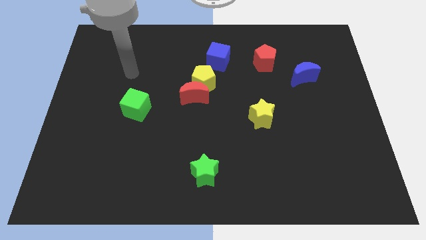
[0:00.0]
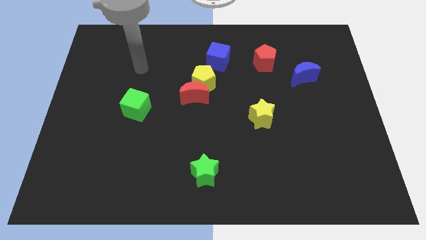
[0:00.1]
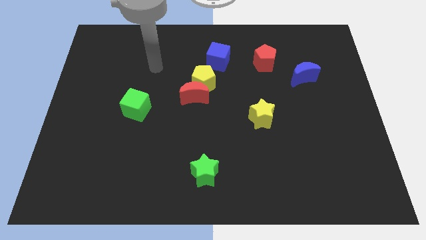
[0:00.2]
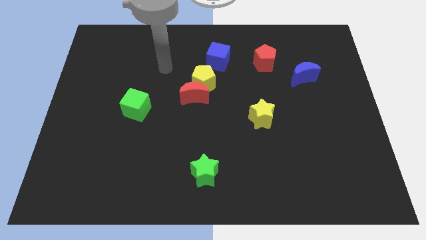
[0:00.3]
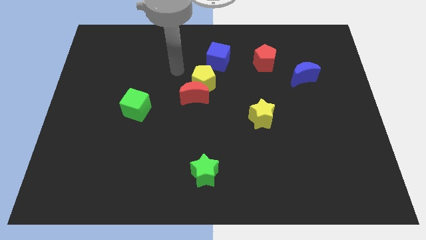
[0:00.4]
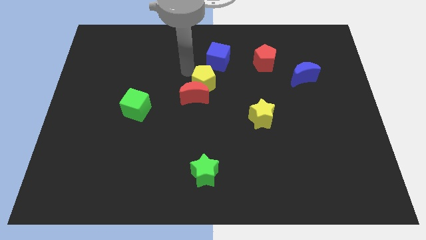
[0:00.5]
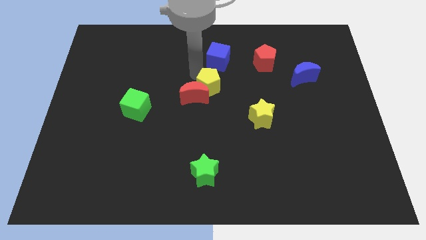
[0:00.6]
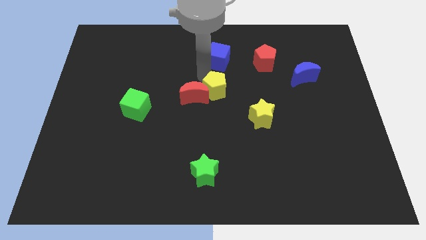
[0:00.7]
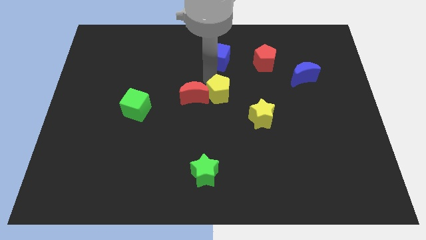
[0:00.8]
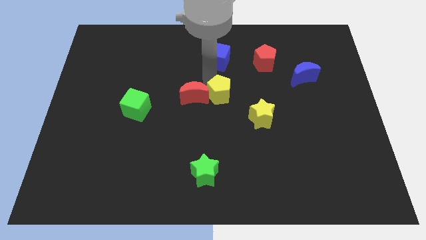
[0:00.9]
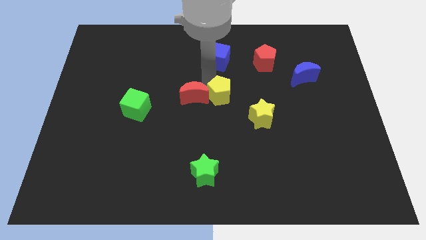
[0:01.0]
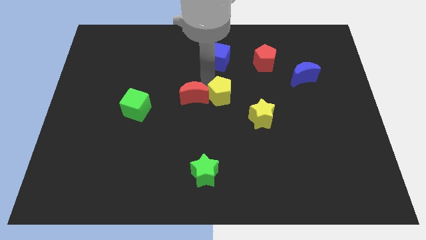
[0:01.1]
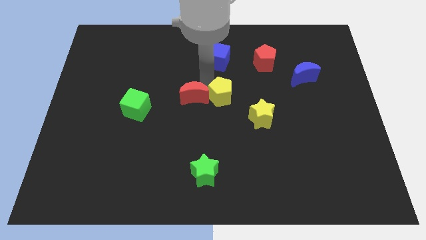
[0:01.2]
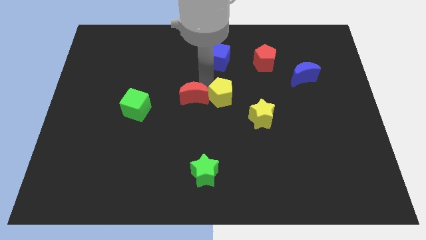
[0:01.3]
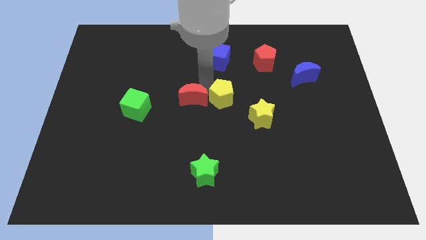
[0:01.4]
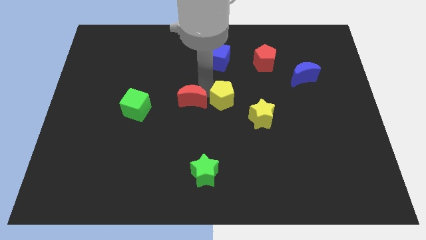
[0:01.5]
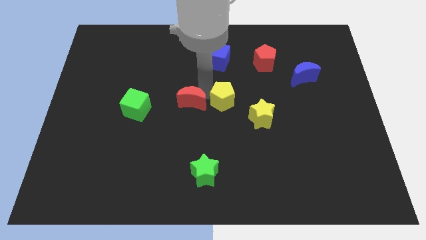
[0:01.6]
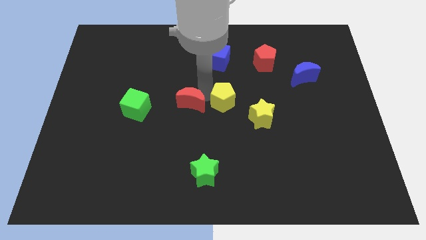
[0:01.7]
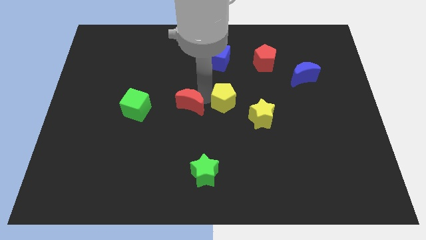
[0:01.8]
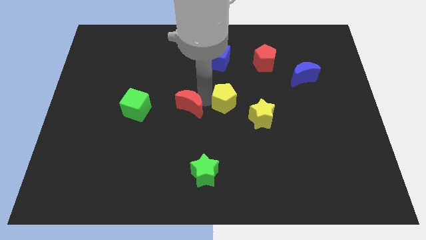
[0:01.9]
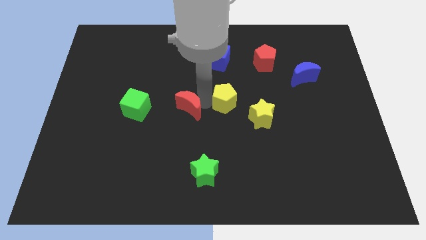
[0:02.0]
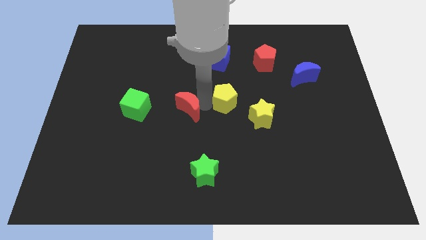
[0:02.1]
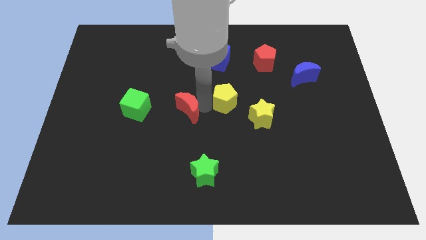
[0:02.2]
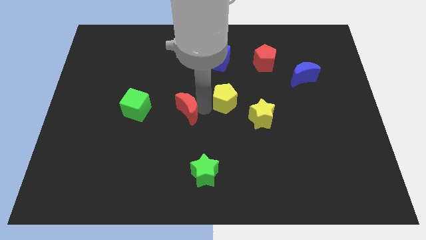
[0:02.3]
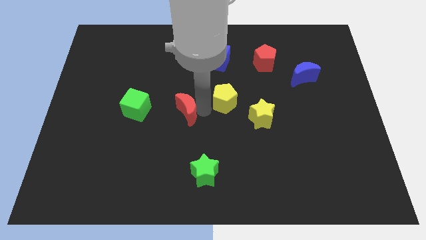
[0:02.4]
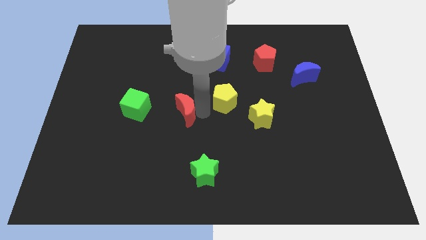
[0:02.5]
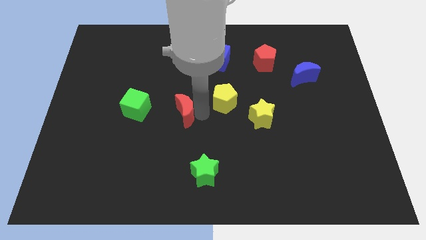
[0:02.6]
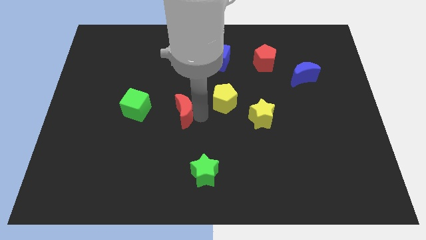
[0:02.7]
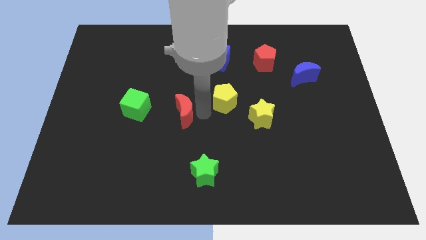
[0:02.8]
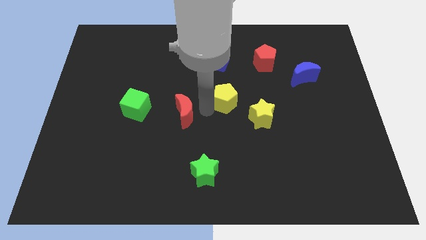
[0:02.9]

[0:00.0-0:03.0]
separate the red moon from the yellow pentagon

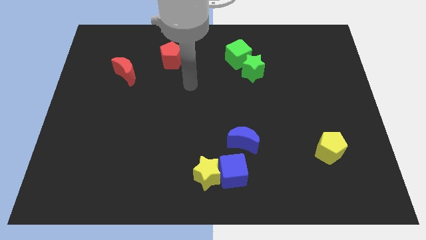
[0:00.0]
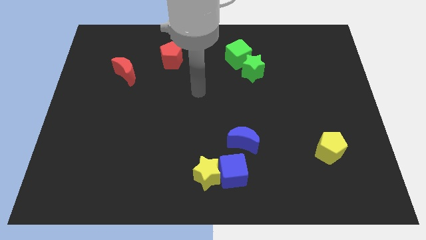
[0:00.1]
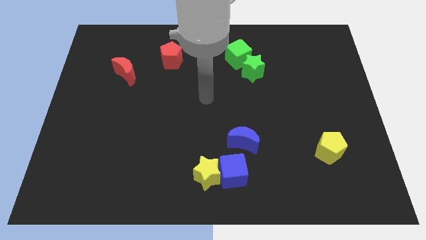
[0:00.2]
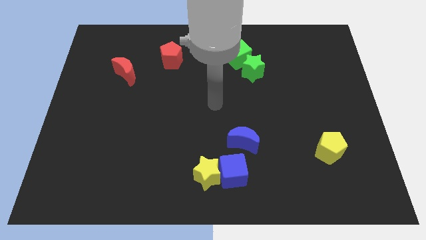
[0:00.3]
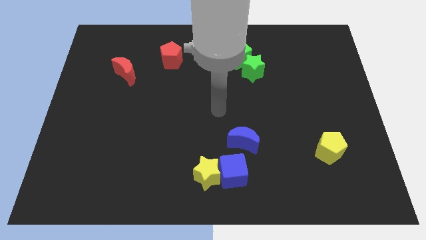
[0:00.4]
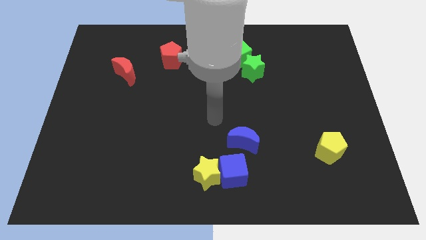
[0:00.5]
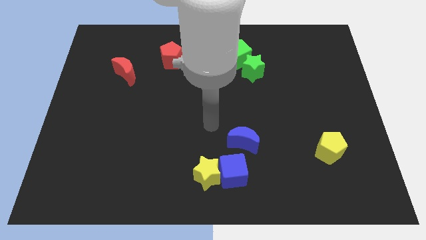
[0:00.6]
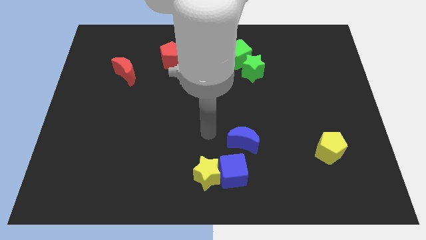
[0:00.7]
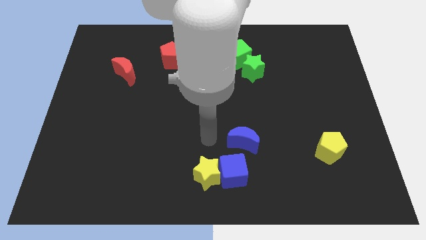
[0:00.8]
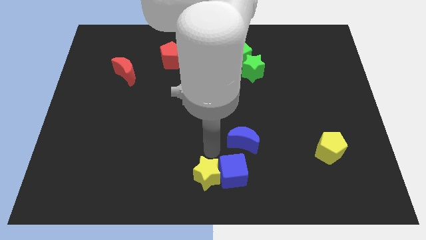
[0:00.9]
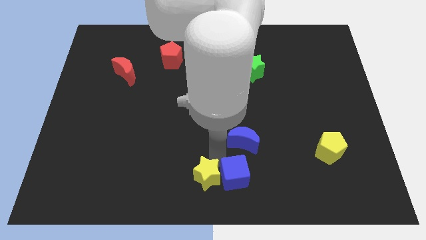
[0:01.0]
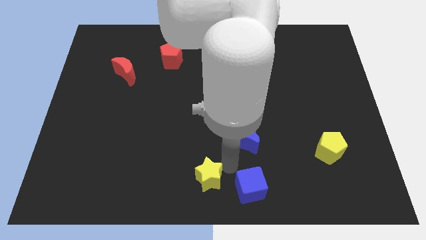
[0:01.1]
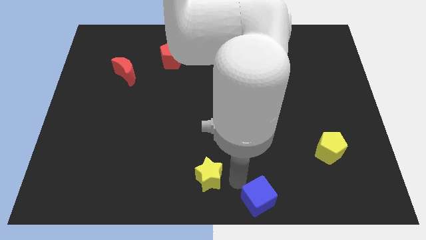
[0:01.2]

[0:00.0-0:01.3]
separate the yellow star from the blue cube

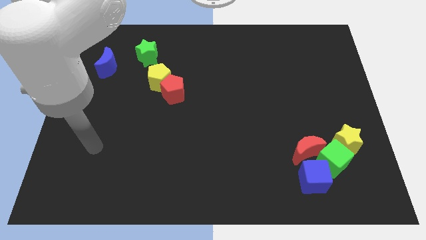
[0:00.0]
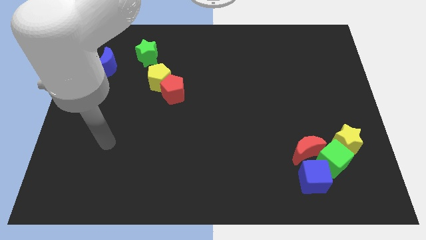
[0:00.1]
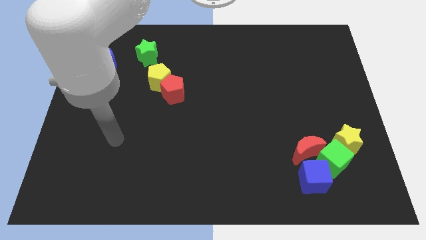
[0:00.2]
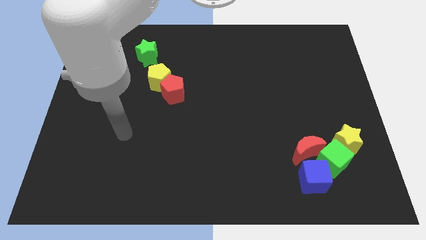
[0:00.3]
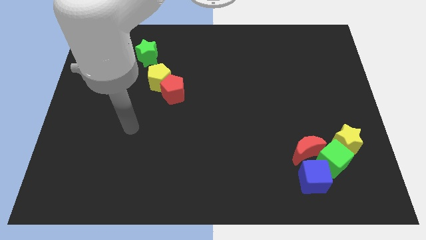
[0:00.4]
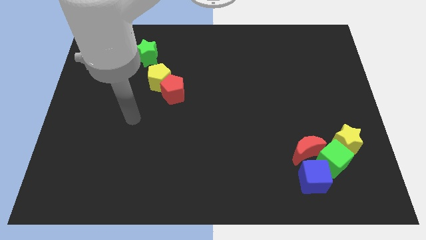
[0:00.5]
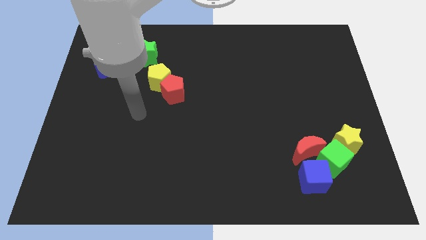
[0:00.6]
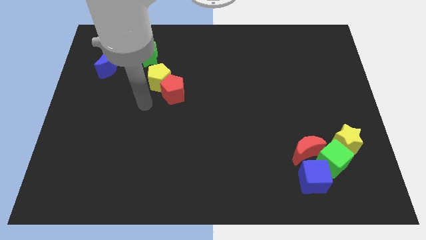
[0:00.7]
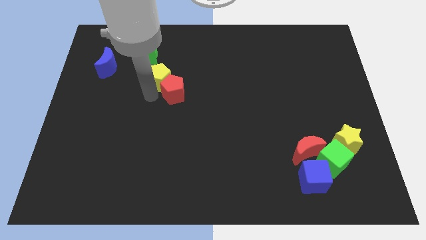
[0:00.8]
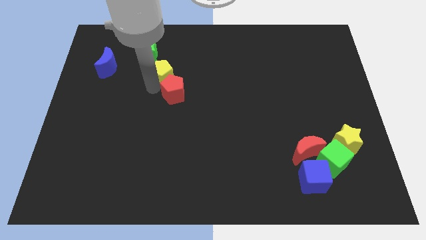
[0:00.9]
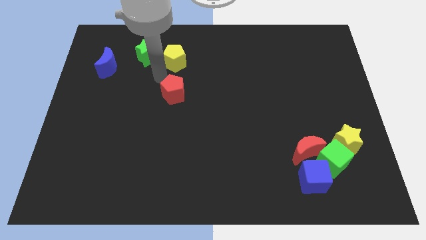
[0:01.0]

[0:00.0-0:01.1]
move the red pentagon away from the yellow pentagon

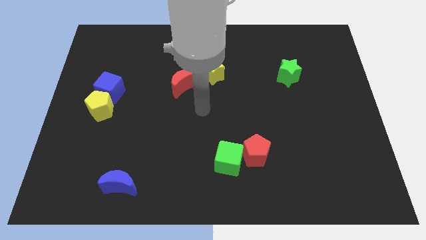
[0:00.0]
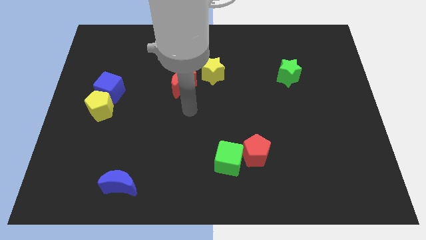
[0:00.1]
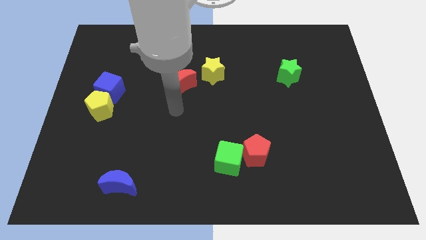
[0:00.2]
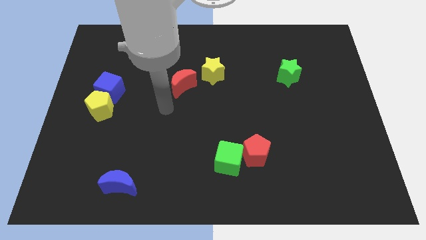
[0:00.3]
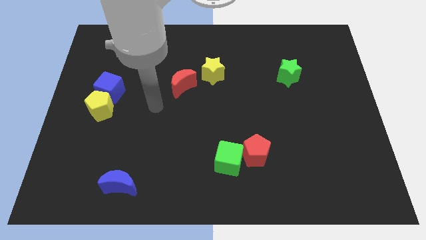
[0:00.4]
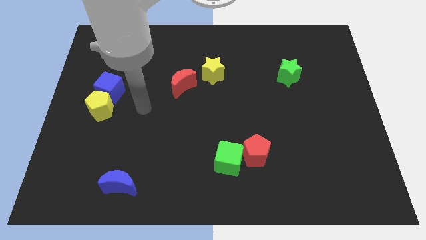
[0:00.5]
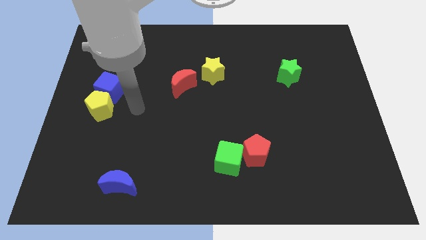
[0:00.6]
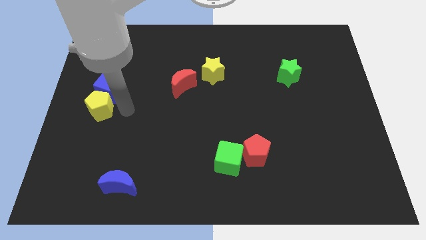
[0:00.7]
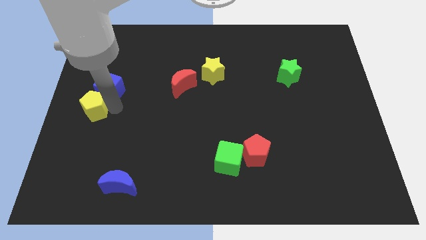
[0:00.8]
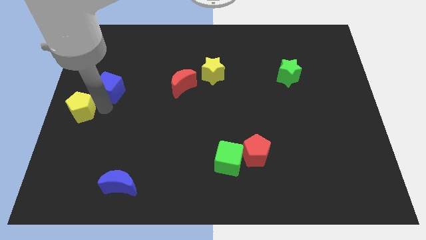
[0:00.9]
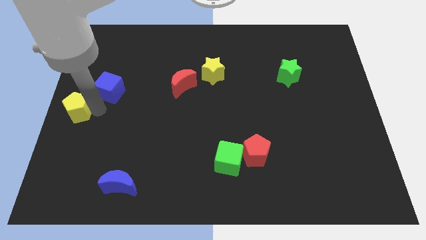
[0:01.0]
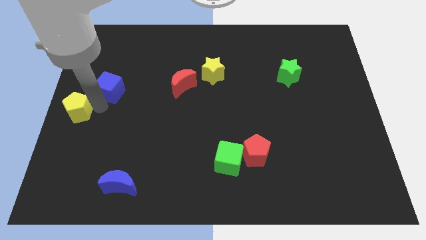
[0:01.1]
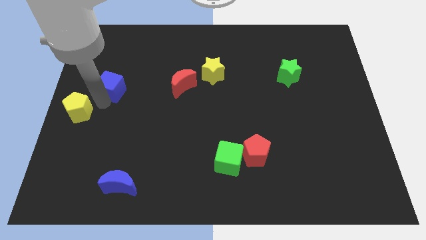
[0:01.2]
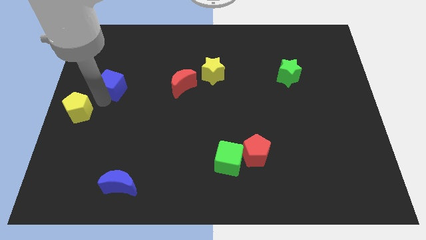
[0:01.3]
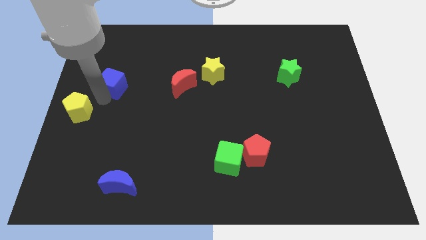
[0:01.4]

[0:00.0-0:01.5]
pull the blue cube apart from the yellow pentagon

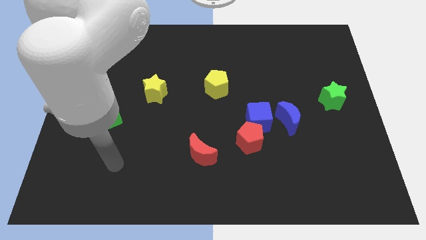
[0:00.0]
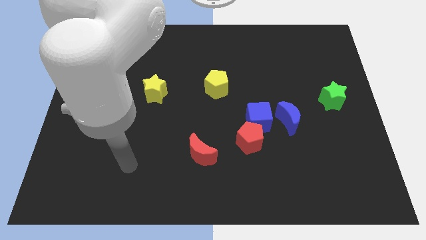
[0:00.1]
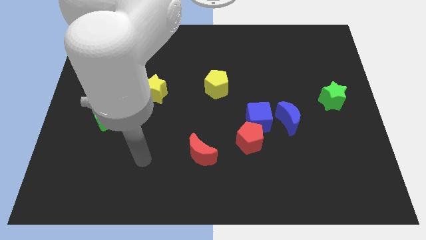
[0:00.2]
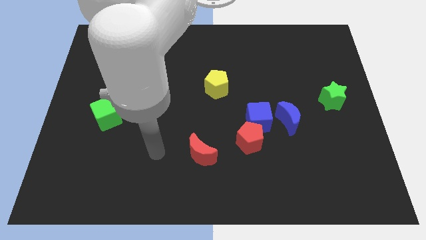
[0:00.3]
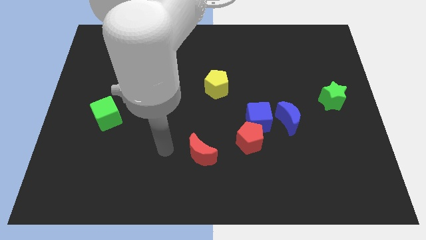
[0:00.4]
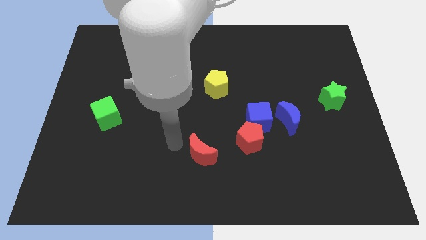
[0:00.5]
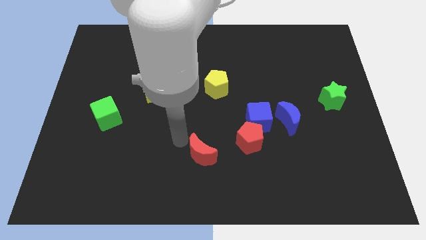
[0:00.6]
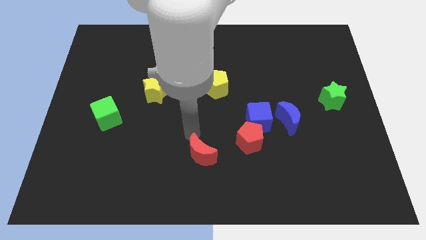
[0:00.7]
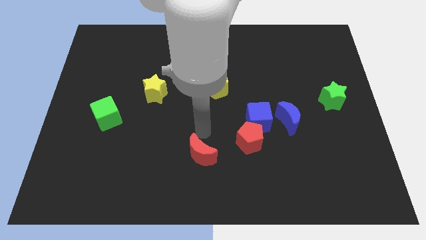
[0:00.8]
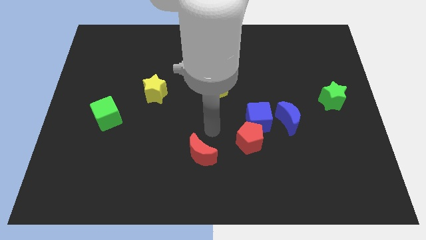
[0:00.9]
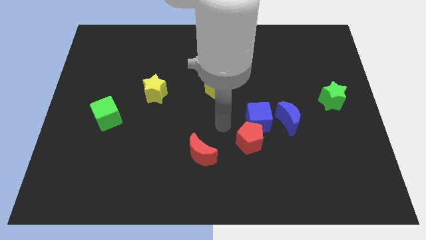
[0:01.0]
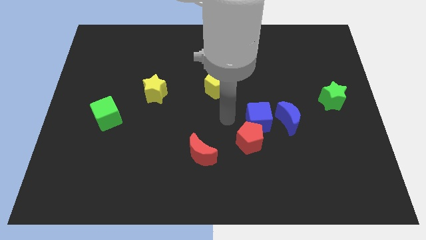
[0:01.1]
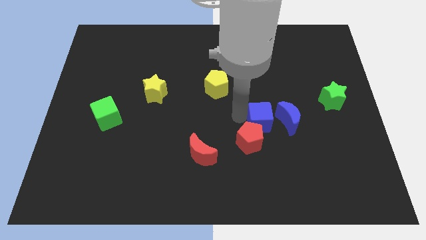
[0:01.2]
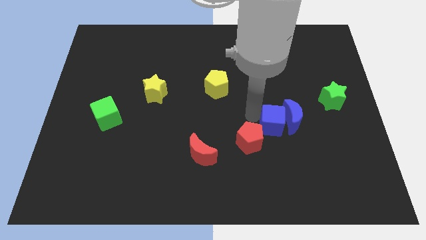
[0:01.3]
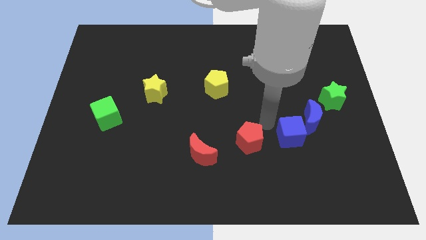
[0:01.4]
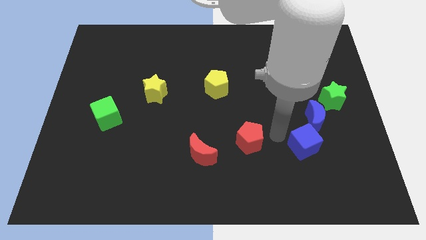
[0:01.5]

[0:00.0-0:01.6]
separate the red pentagon from the blue cube

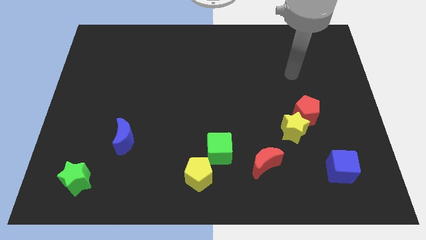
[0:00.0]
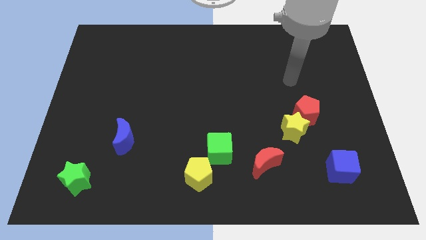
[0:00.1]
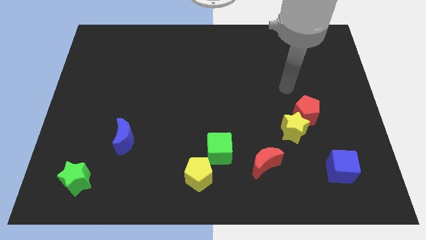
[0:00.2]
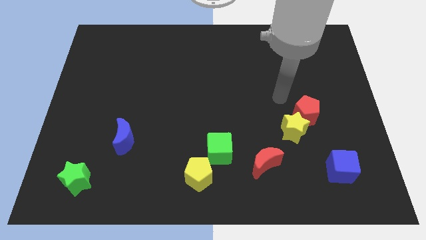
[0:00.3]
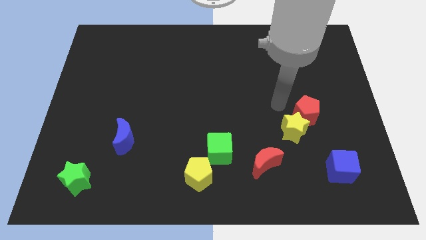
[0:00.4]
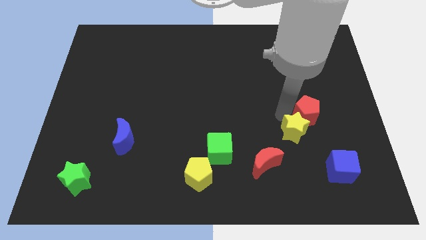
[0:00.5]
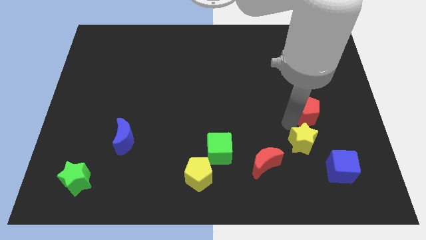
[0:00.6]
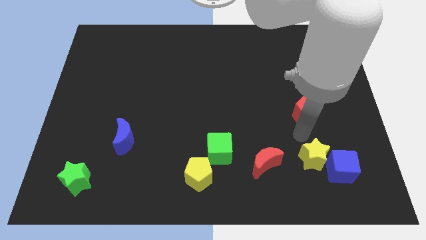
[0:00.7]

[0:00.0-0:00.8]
separate the red pentagon from the yellow star
